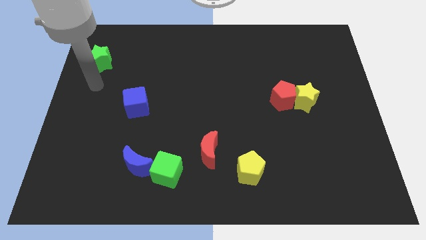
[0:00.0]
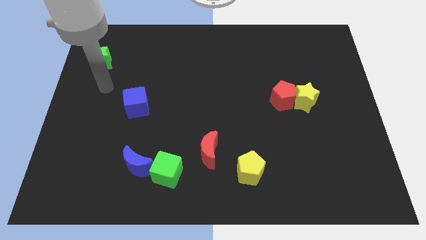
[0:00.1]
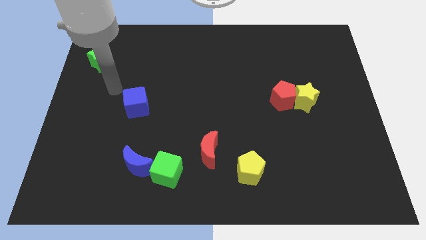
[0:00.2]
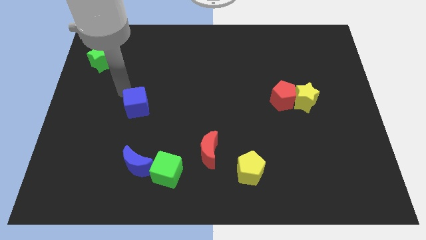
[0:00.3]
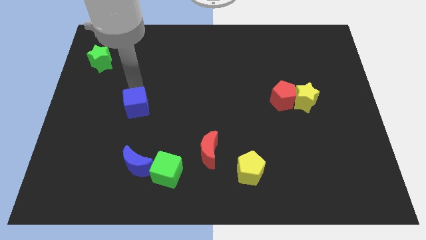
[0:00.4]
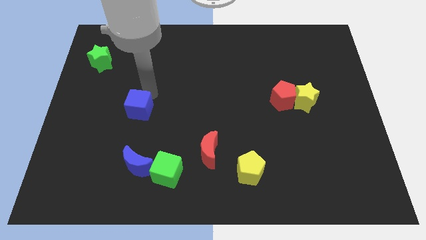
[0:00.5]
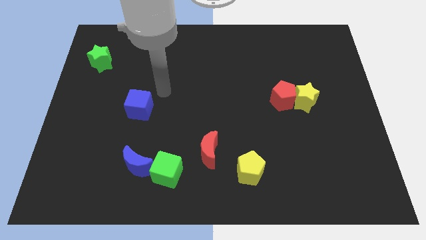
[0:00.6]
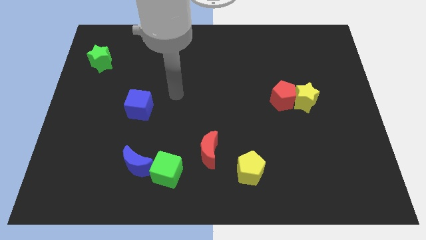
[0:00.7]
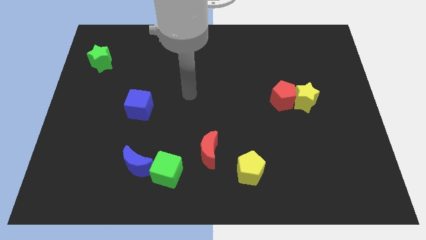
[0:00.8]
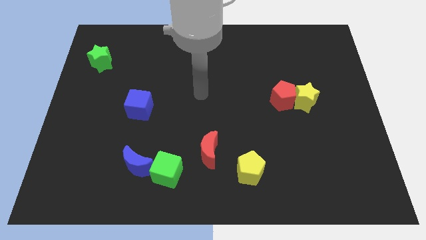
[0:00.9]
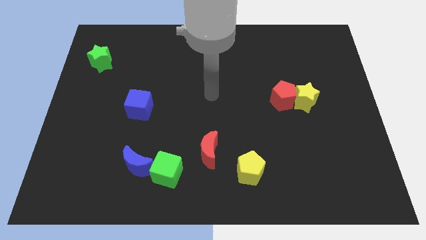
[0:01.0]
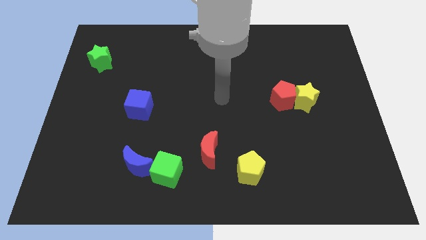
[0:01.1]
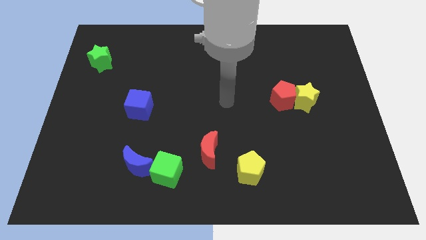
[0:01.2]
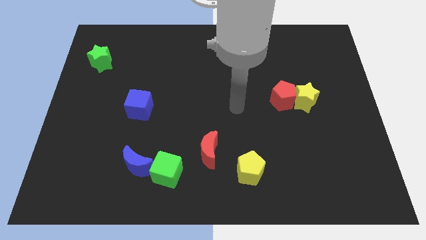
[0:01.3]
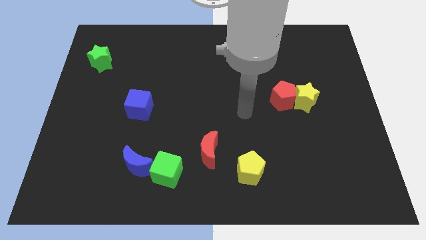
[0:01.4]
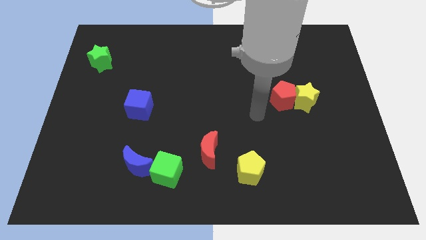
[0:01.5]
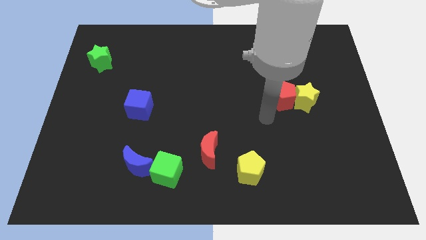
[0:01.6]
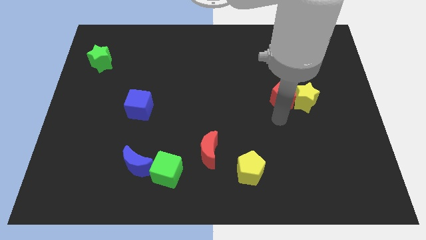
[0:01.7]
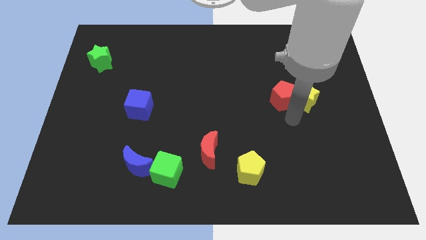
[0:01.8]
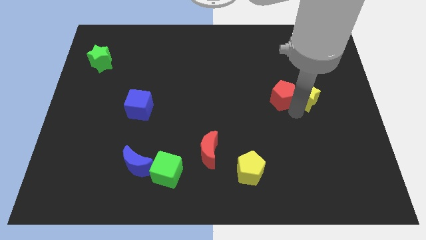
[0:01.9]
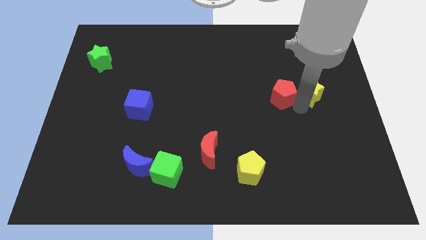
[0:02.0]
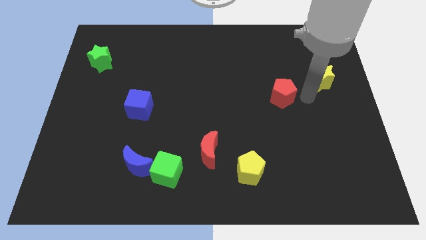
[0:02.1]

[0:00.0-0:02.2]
move the red pentagon away from the yellow star

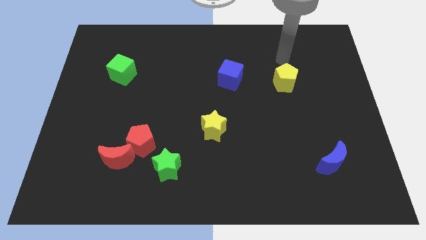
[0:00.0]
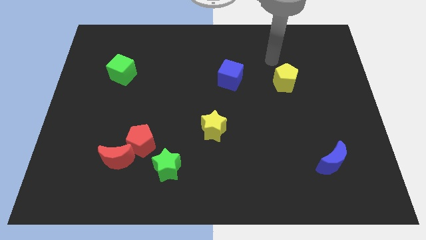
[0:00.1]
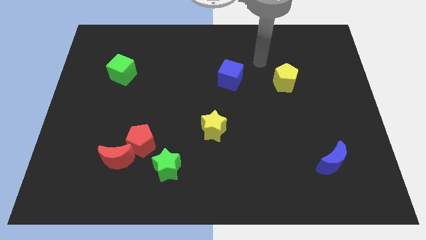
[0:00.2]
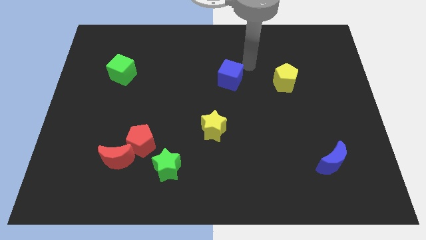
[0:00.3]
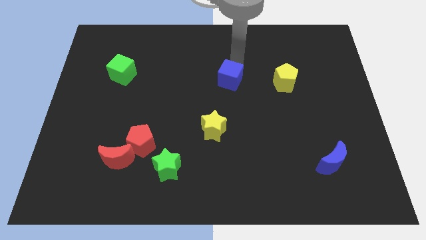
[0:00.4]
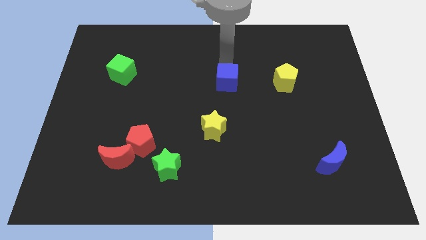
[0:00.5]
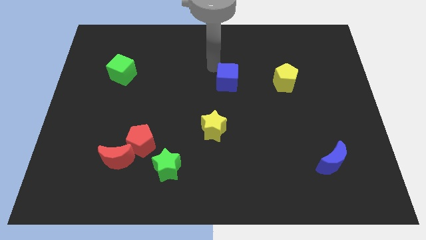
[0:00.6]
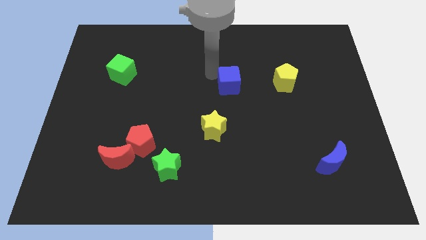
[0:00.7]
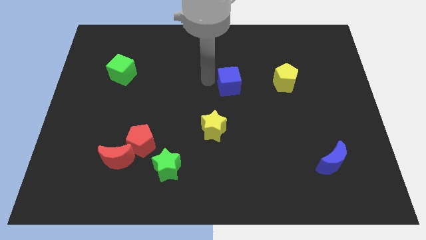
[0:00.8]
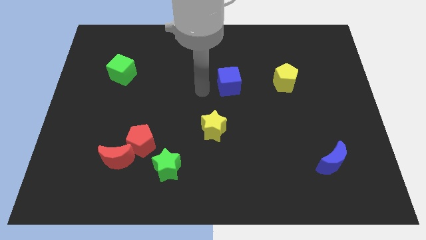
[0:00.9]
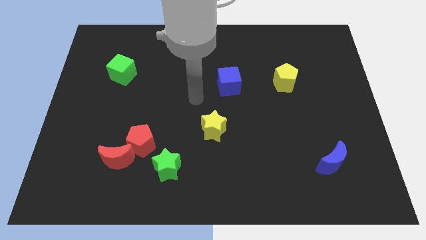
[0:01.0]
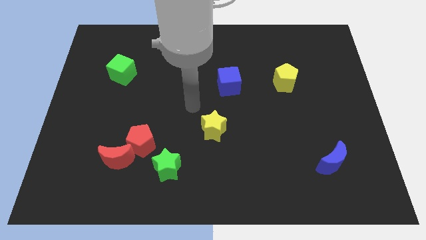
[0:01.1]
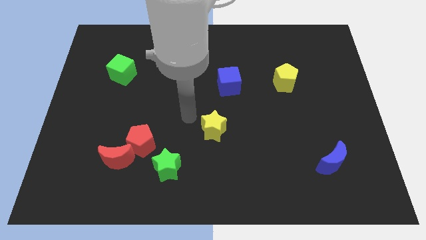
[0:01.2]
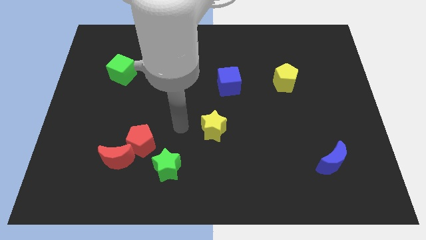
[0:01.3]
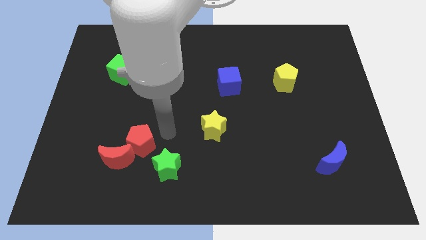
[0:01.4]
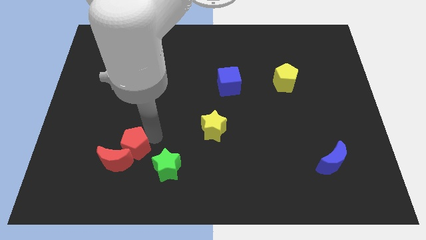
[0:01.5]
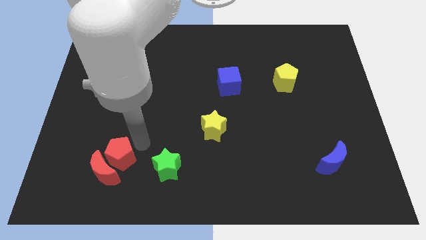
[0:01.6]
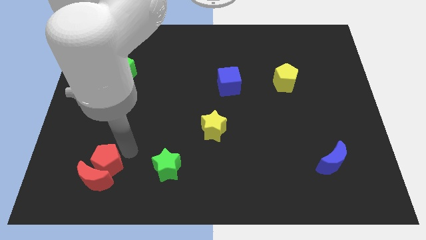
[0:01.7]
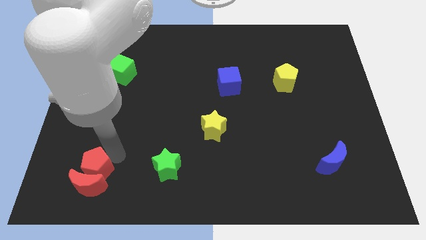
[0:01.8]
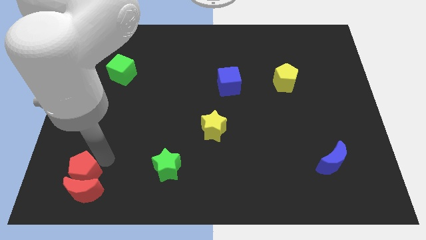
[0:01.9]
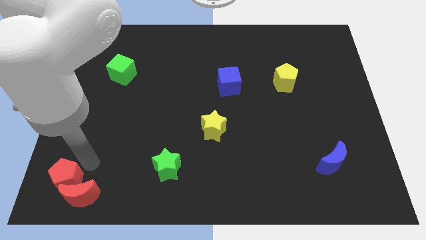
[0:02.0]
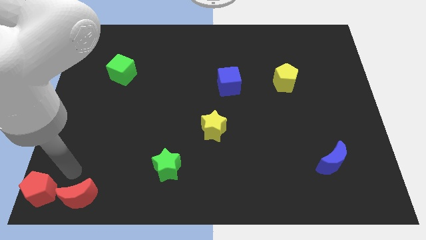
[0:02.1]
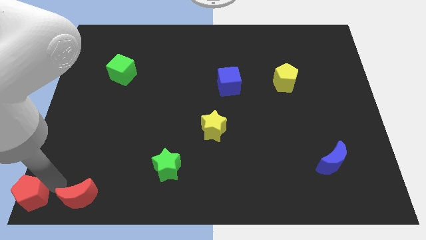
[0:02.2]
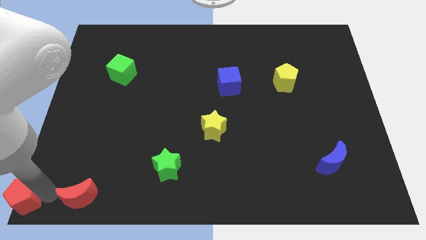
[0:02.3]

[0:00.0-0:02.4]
separate the red moon from the red pentagon

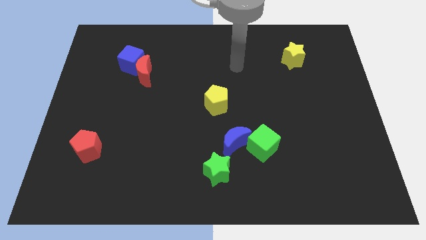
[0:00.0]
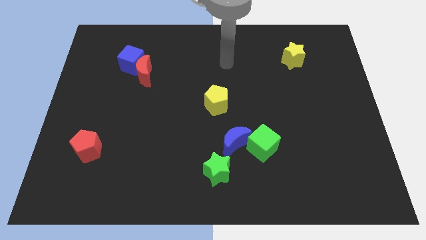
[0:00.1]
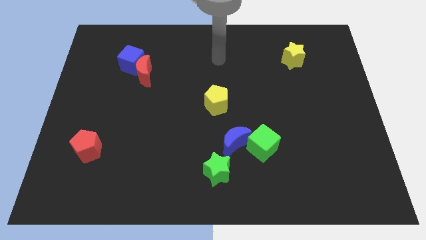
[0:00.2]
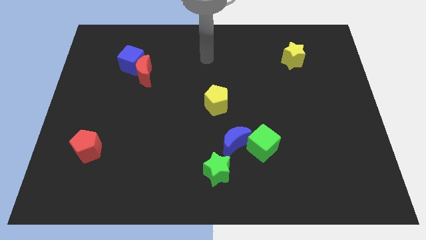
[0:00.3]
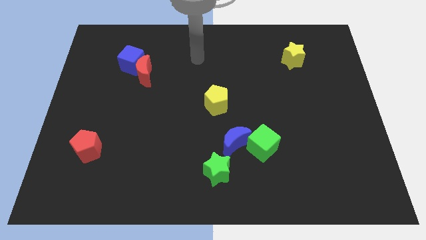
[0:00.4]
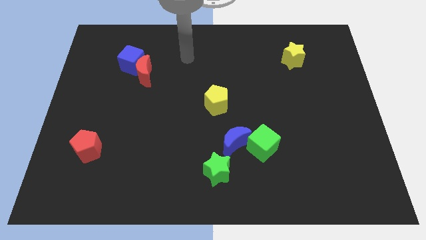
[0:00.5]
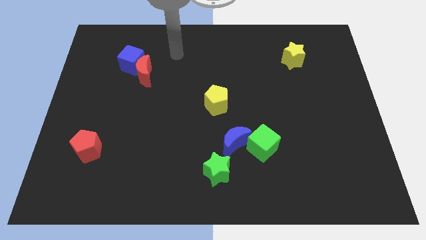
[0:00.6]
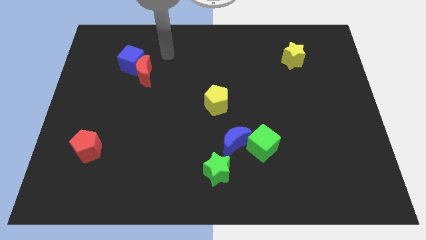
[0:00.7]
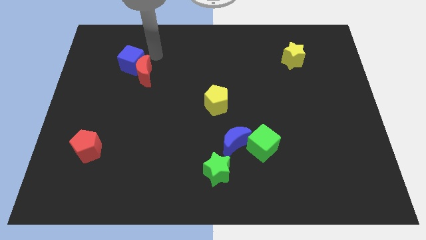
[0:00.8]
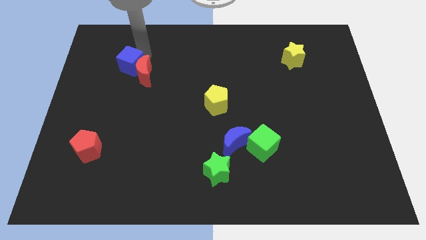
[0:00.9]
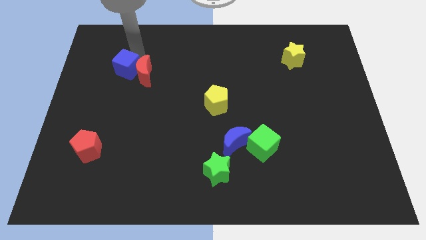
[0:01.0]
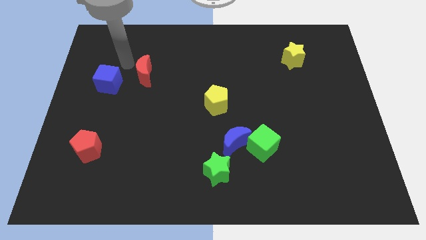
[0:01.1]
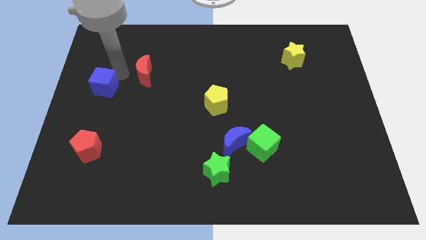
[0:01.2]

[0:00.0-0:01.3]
pull the red moon apart from the blue cube

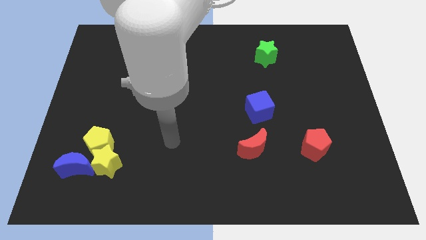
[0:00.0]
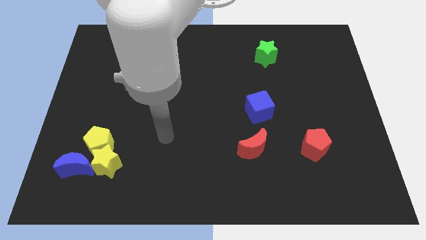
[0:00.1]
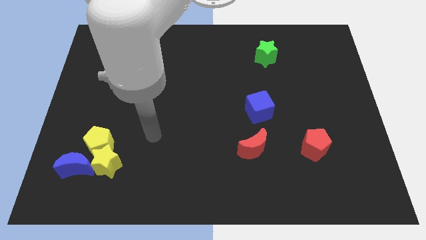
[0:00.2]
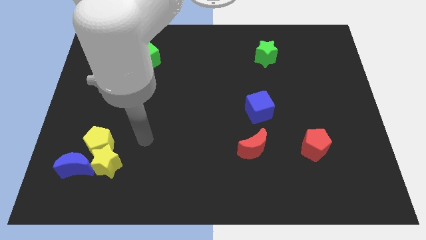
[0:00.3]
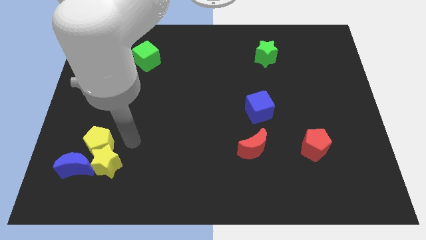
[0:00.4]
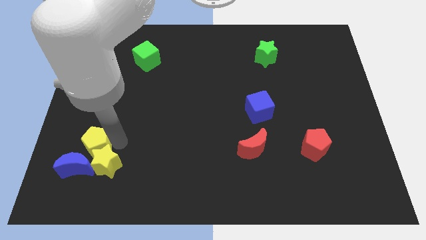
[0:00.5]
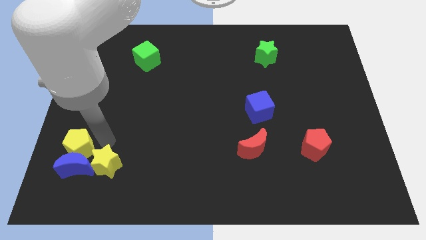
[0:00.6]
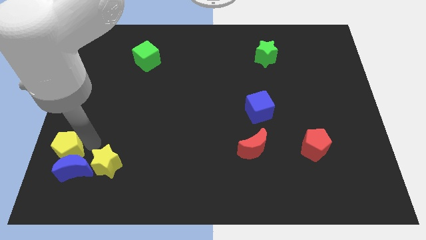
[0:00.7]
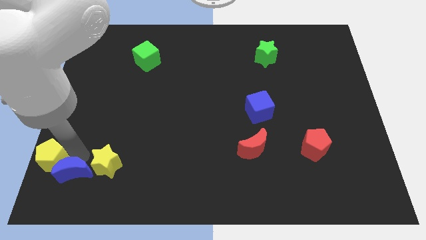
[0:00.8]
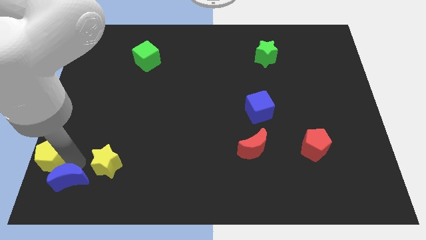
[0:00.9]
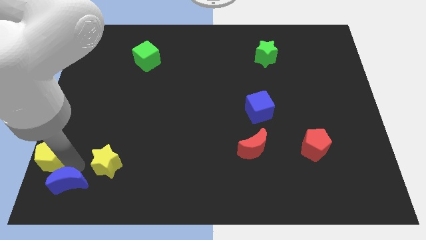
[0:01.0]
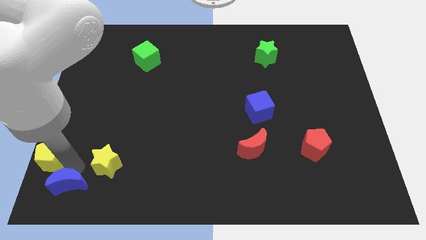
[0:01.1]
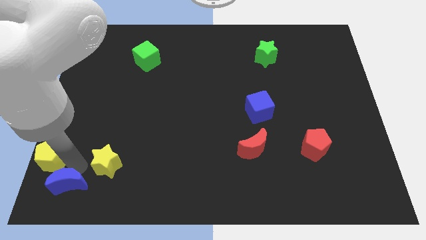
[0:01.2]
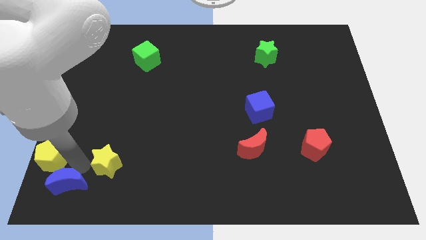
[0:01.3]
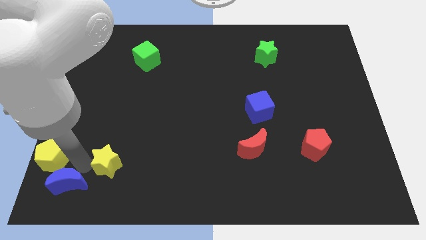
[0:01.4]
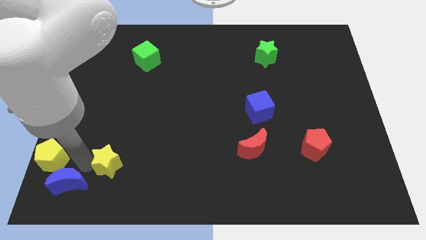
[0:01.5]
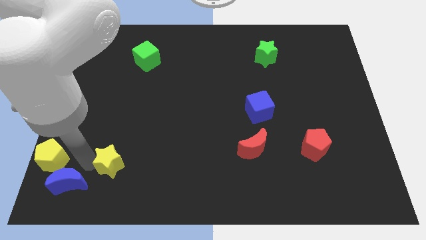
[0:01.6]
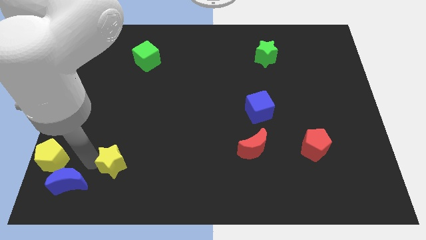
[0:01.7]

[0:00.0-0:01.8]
pull the yellow star apart from the yellow pentagon and blue moon

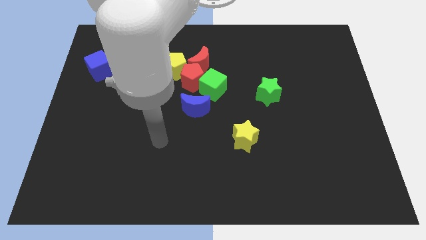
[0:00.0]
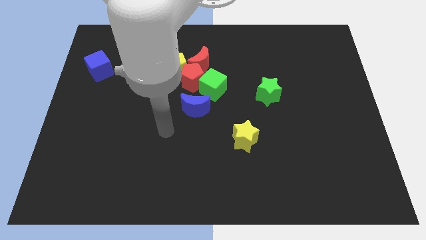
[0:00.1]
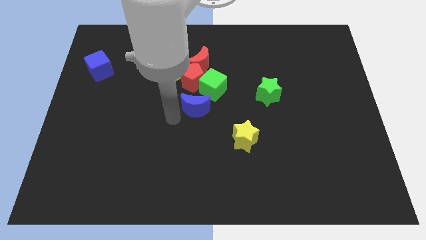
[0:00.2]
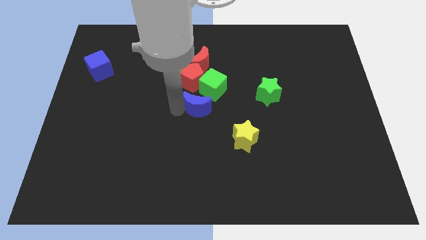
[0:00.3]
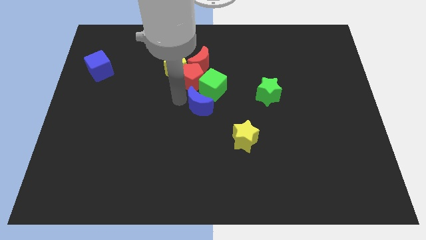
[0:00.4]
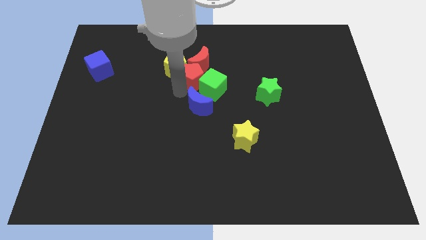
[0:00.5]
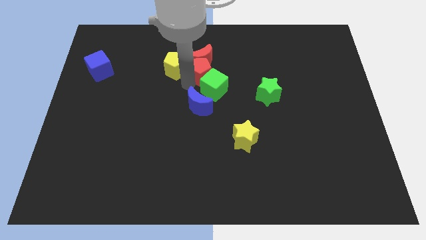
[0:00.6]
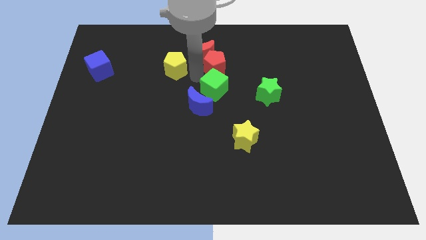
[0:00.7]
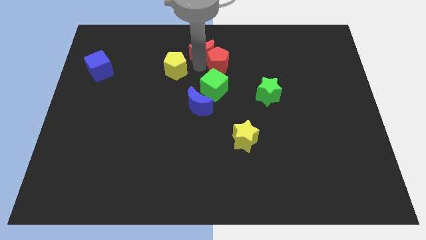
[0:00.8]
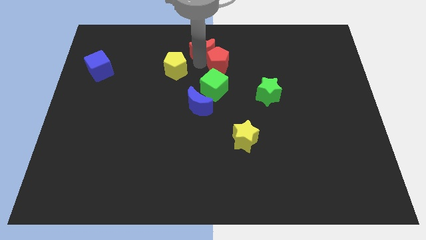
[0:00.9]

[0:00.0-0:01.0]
pull the yellow pentagon apart from the red pentagon and red moon

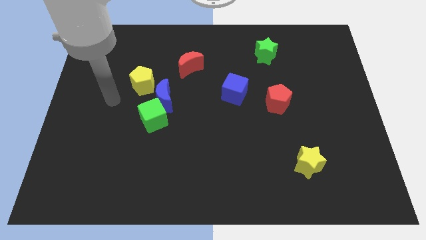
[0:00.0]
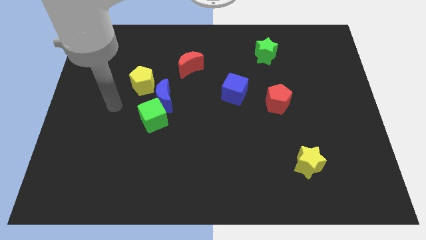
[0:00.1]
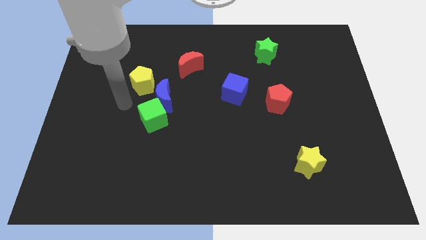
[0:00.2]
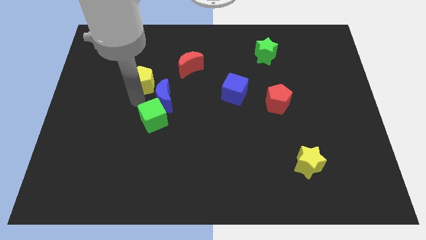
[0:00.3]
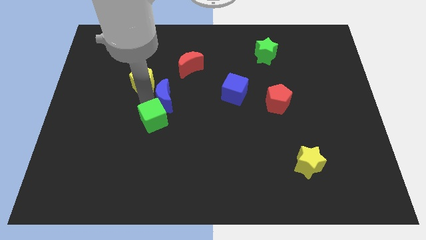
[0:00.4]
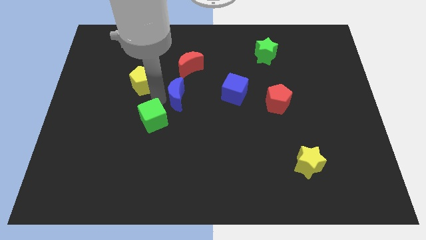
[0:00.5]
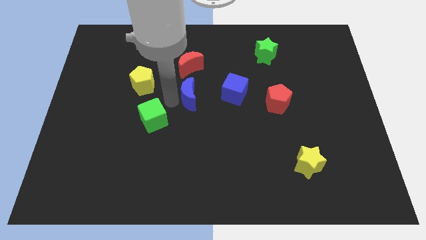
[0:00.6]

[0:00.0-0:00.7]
separate the green cube from the blue moon

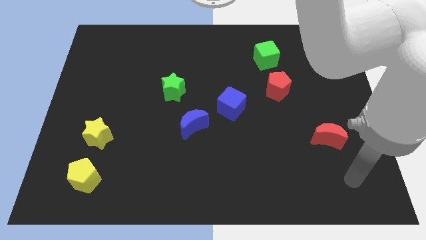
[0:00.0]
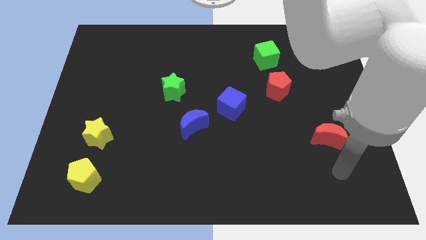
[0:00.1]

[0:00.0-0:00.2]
move the yellow star away from the yellow pentagon
